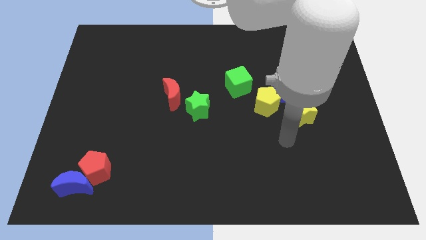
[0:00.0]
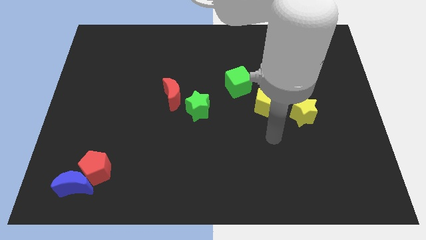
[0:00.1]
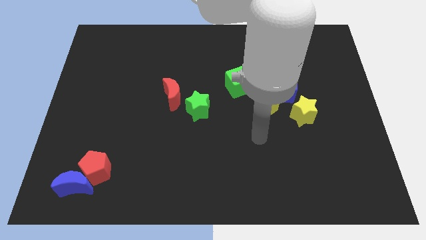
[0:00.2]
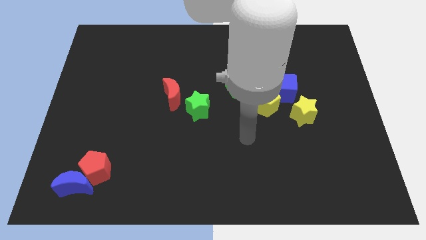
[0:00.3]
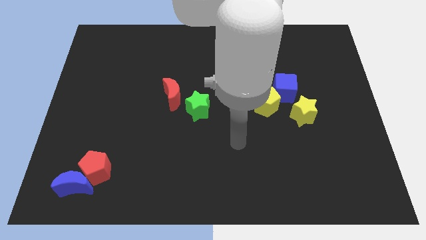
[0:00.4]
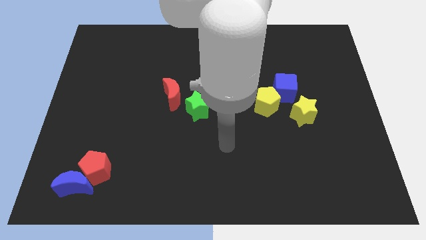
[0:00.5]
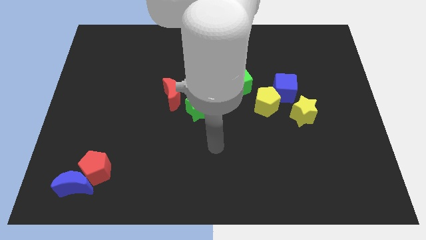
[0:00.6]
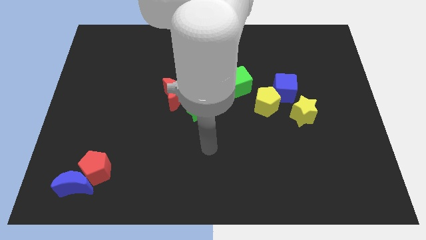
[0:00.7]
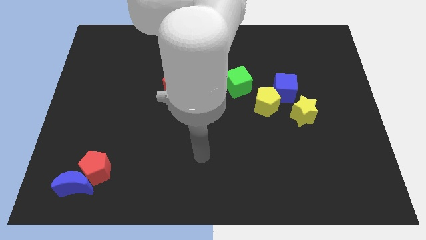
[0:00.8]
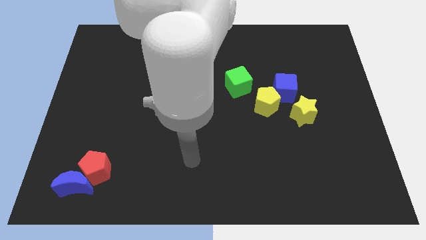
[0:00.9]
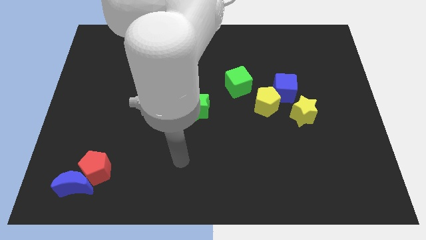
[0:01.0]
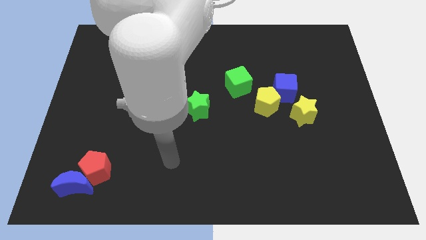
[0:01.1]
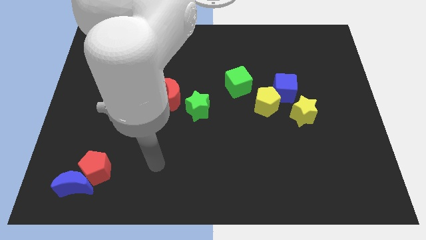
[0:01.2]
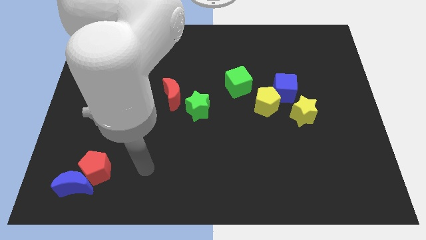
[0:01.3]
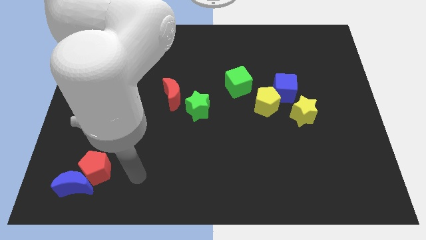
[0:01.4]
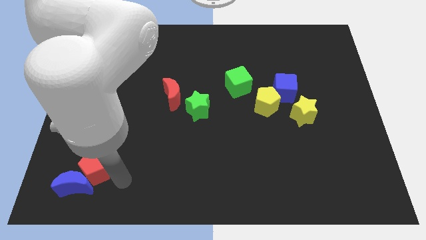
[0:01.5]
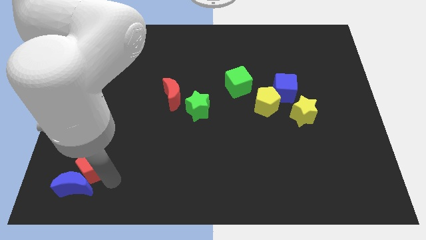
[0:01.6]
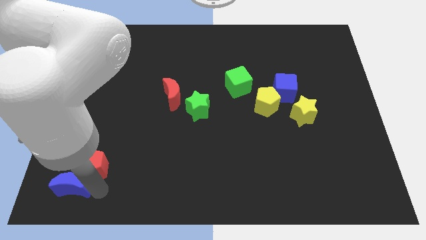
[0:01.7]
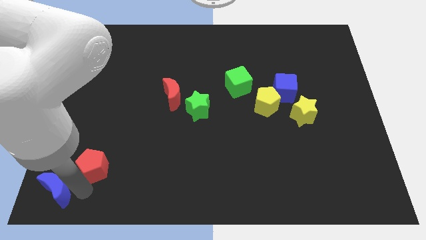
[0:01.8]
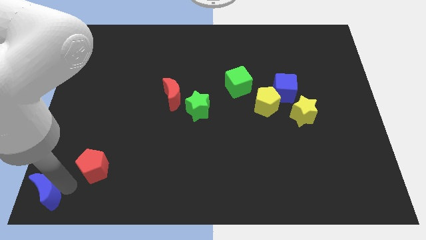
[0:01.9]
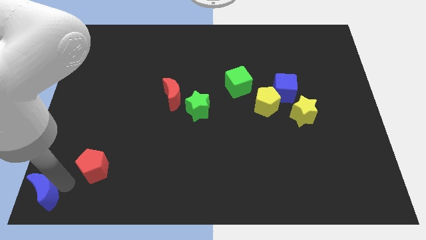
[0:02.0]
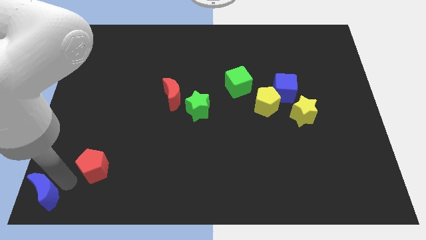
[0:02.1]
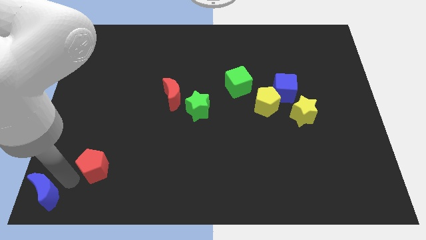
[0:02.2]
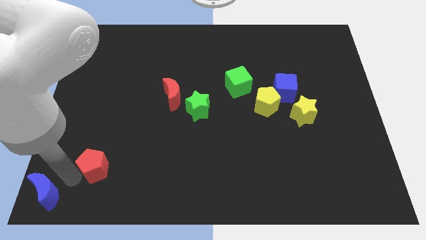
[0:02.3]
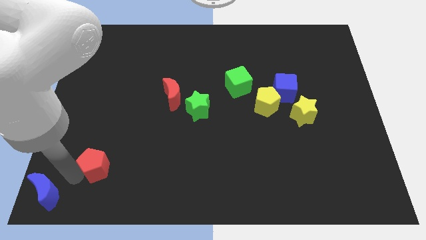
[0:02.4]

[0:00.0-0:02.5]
move the red pentagon away from the blue moon

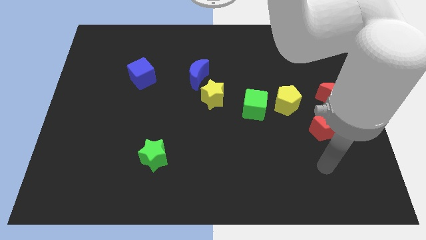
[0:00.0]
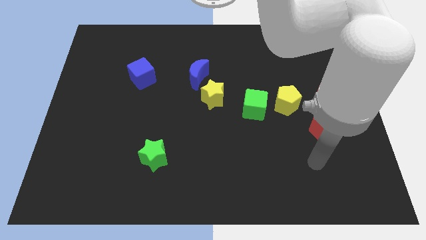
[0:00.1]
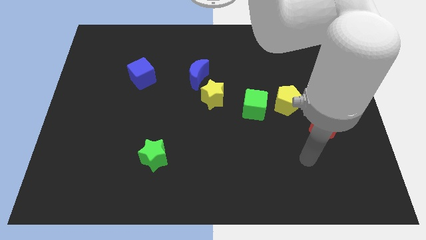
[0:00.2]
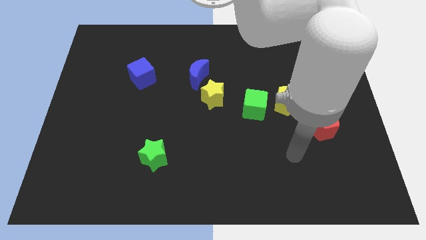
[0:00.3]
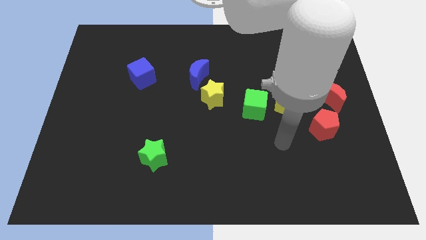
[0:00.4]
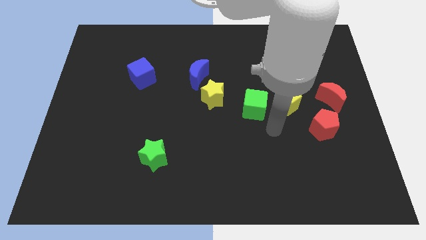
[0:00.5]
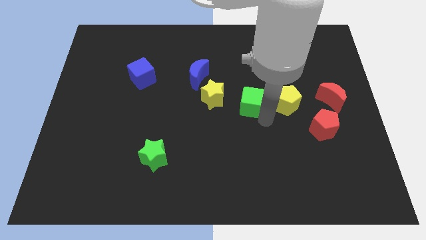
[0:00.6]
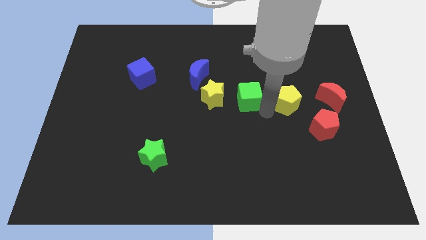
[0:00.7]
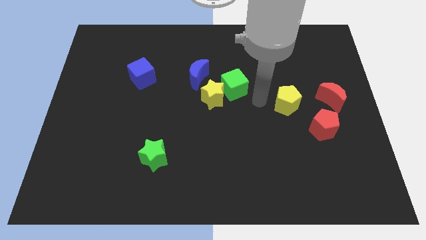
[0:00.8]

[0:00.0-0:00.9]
move the yellow pentagon away from the green cube

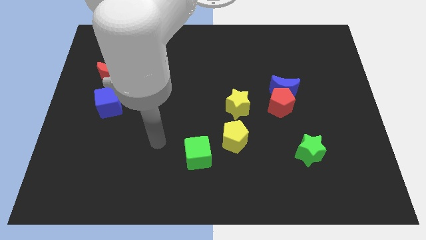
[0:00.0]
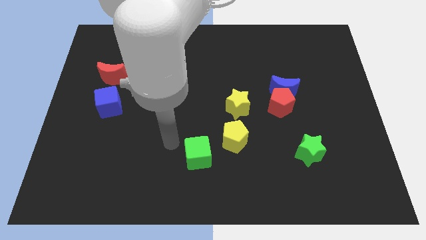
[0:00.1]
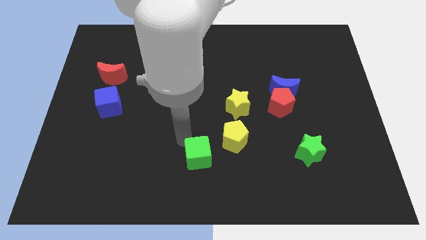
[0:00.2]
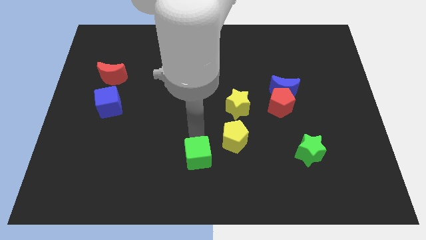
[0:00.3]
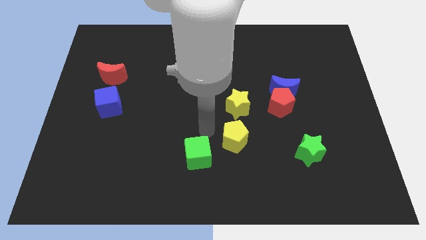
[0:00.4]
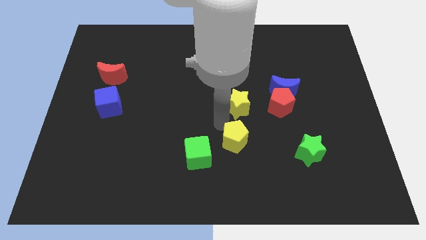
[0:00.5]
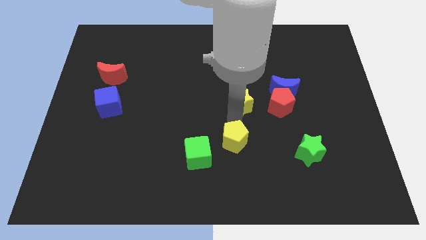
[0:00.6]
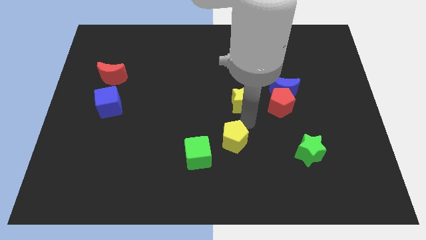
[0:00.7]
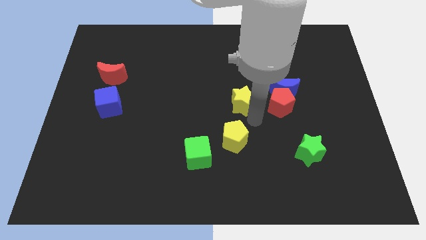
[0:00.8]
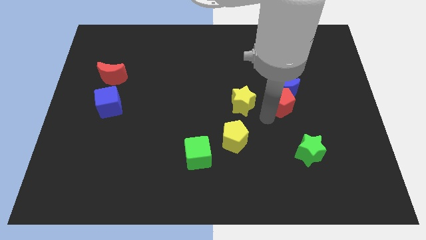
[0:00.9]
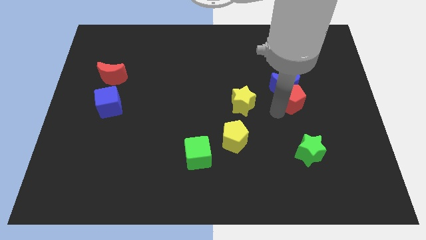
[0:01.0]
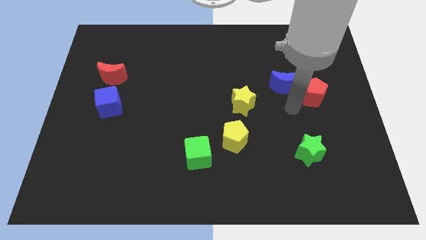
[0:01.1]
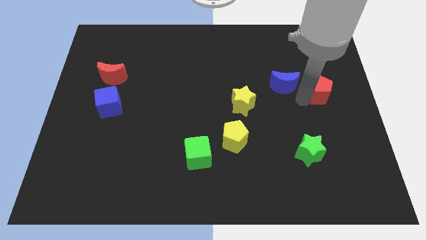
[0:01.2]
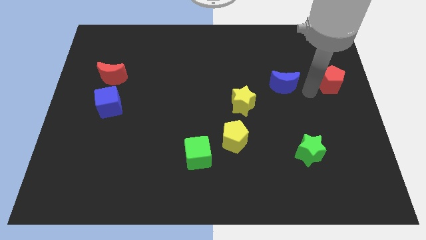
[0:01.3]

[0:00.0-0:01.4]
pull the blue moon apart from the red pentagon

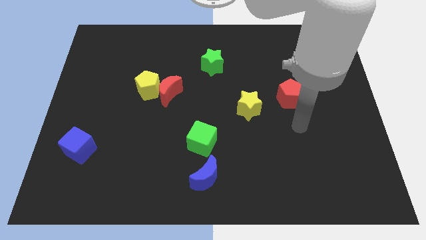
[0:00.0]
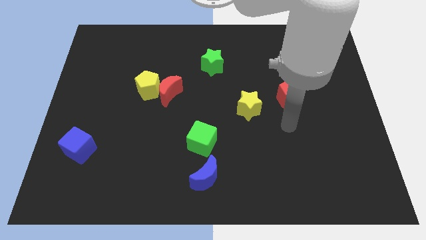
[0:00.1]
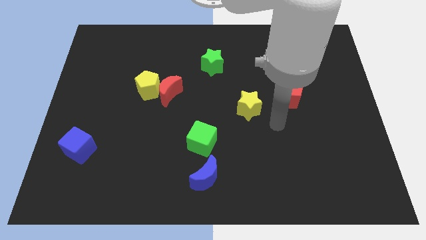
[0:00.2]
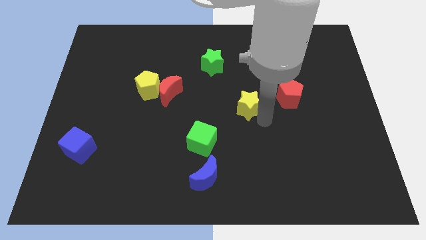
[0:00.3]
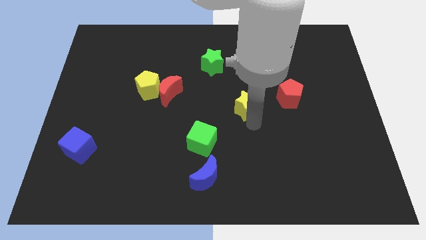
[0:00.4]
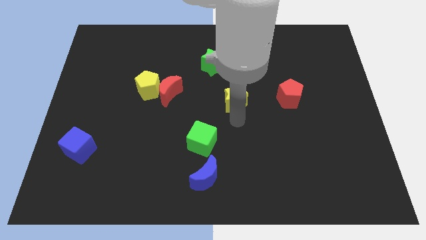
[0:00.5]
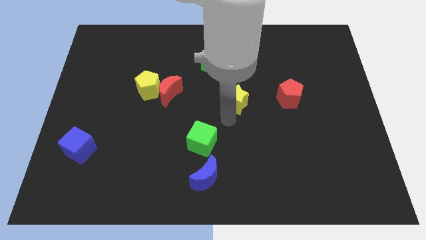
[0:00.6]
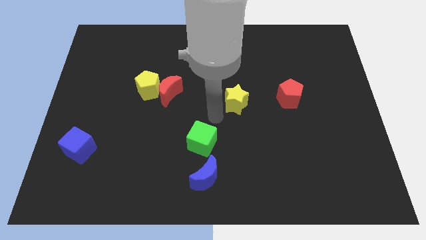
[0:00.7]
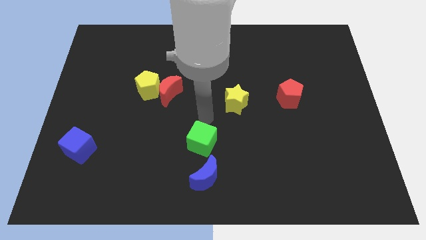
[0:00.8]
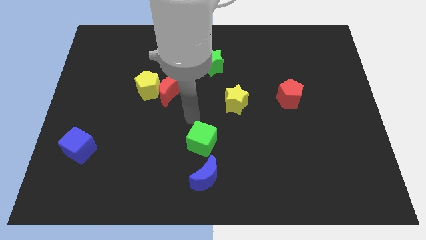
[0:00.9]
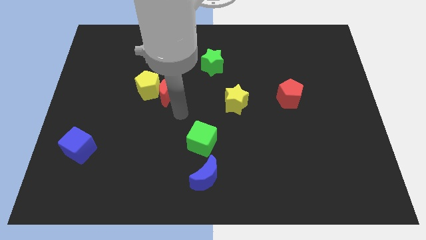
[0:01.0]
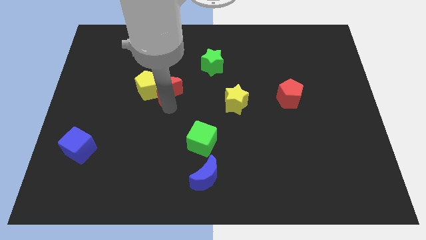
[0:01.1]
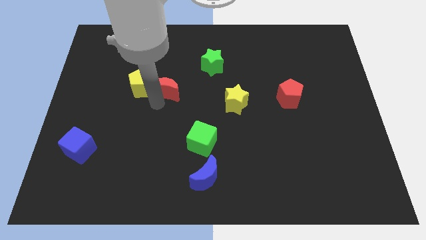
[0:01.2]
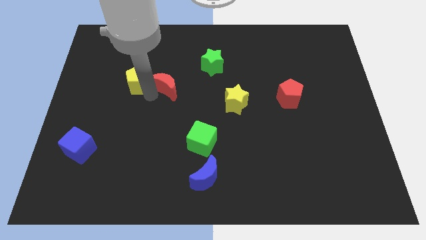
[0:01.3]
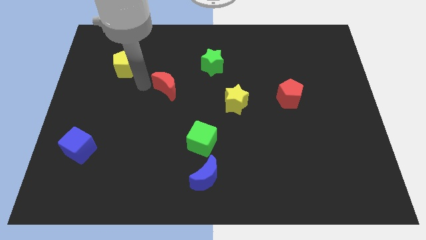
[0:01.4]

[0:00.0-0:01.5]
move the red moon away from the yellow pentagon

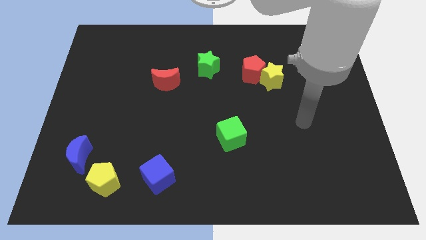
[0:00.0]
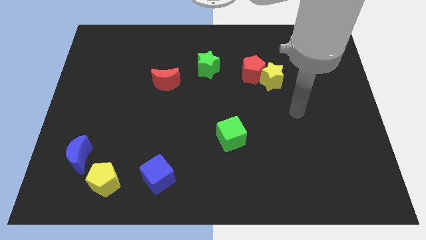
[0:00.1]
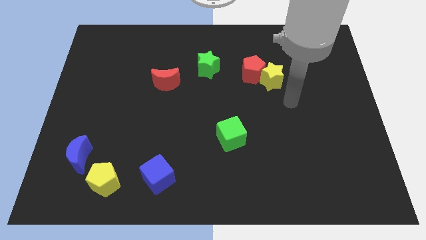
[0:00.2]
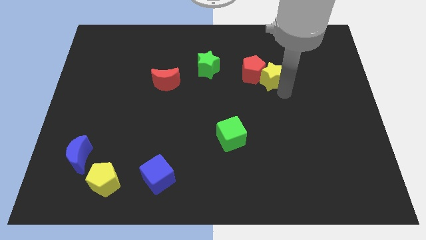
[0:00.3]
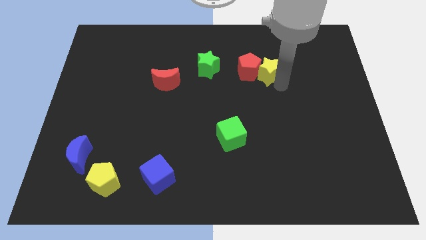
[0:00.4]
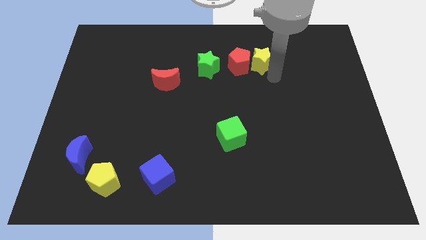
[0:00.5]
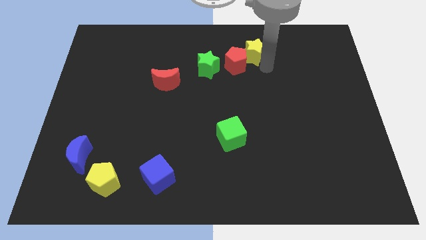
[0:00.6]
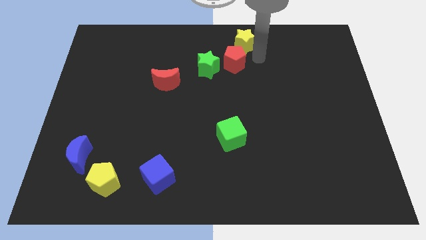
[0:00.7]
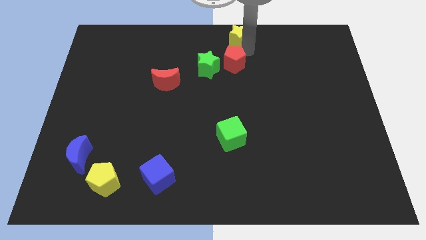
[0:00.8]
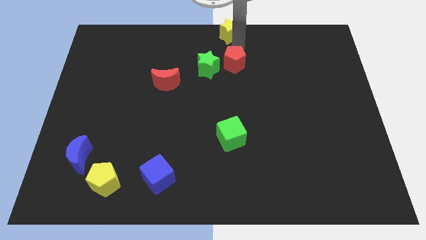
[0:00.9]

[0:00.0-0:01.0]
separate the red pentagon from the yellow star

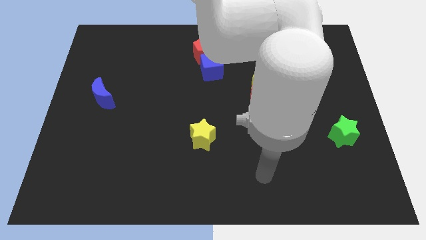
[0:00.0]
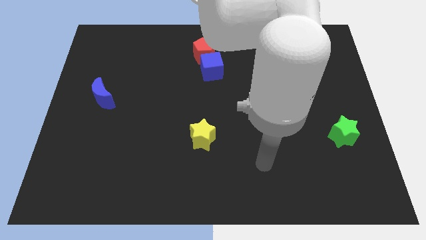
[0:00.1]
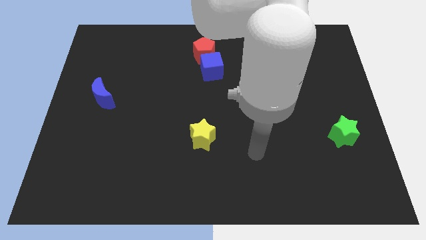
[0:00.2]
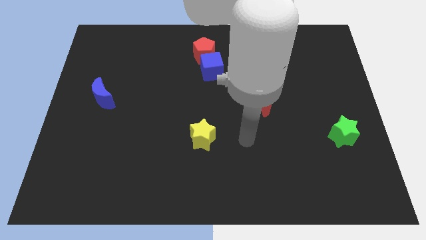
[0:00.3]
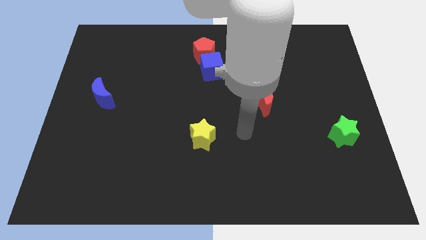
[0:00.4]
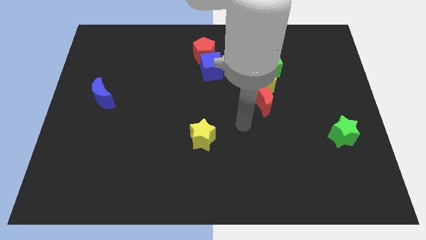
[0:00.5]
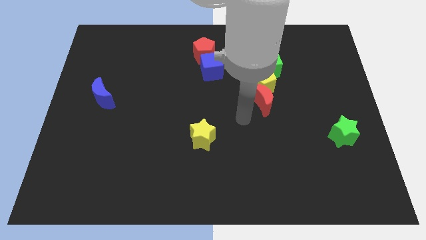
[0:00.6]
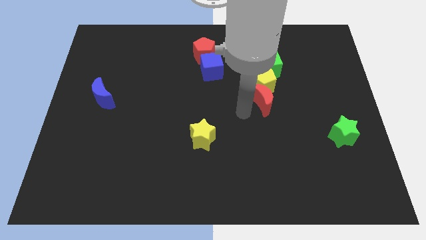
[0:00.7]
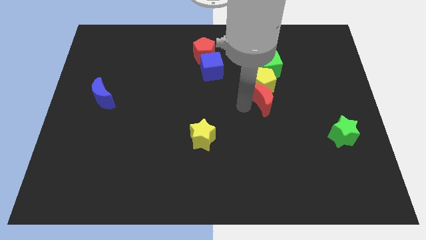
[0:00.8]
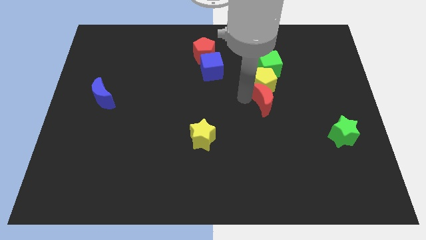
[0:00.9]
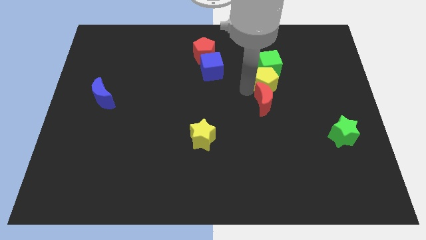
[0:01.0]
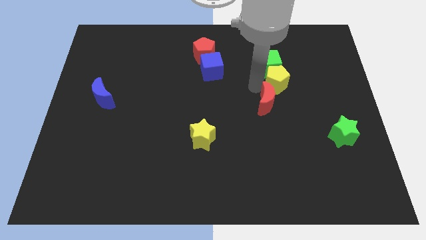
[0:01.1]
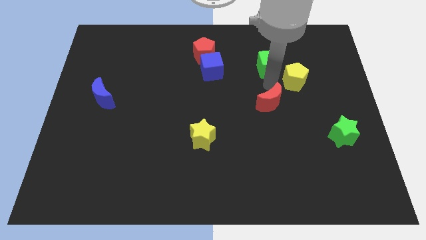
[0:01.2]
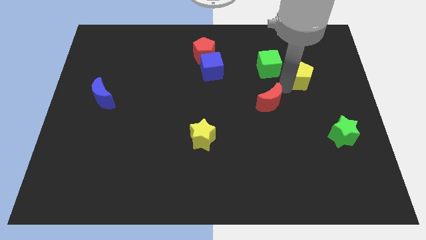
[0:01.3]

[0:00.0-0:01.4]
pull the red moon apart from the yellow pentagon

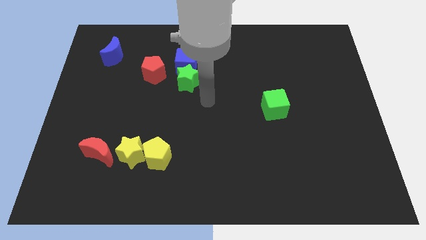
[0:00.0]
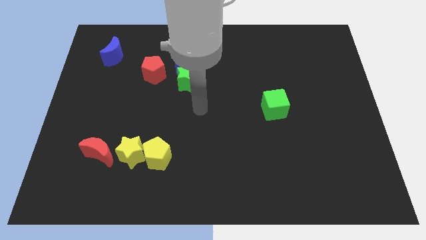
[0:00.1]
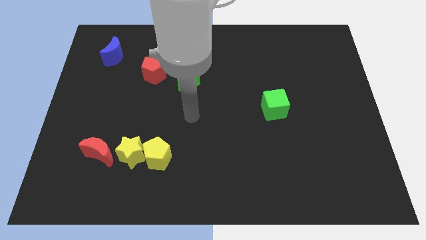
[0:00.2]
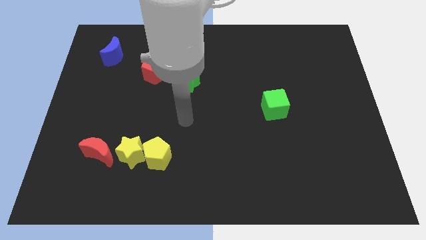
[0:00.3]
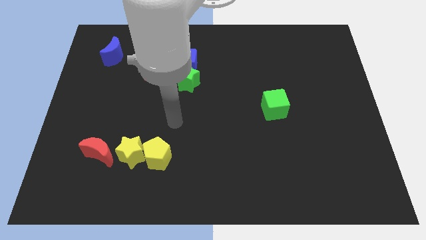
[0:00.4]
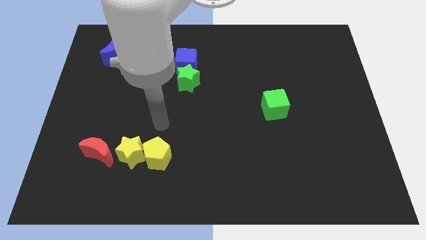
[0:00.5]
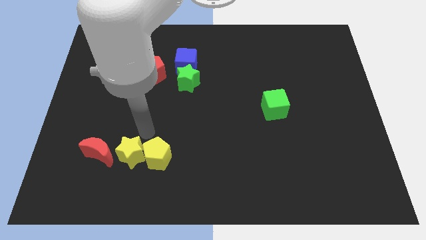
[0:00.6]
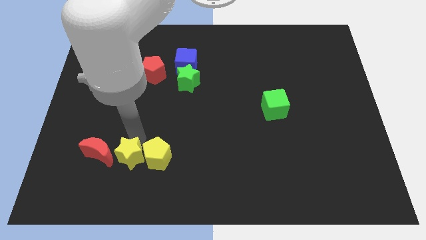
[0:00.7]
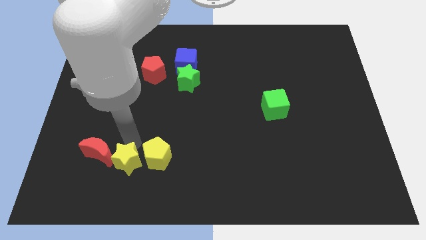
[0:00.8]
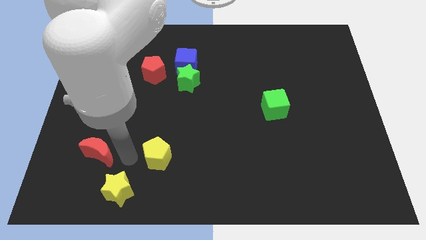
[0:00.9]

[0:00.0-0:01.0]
move the yellow pentagon away from the yellow star
